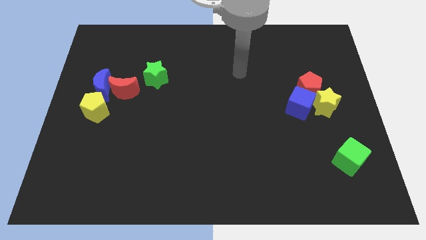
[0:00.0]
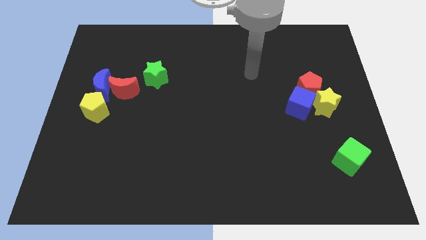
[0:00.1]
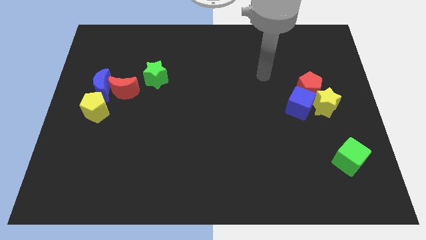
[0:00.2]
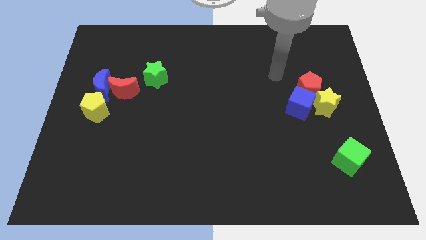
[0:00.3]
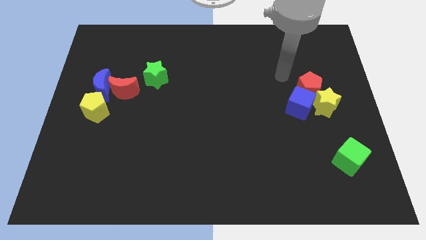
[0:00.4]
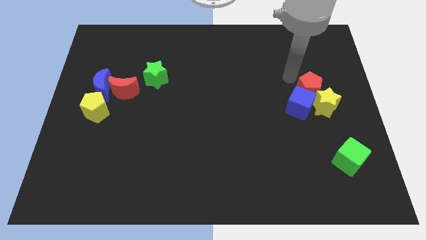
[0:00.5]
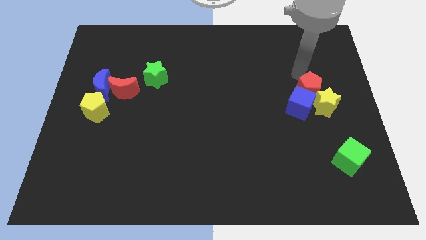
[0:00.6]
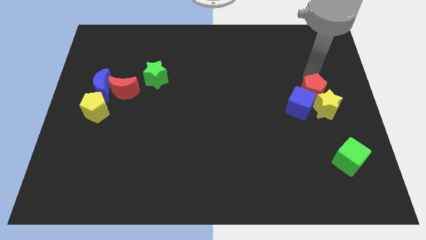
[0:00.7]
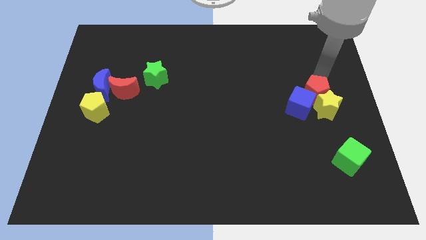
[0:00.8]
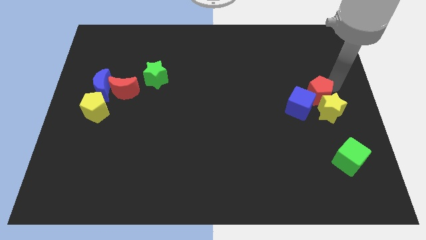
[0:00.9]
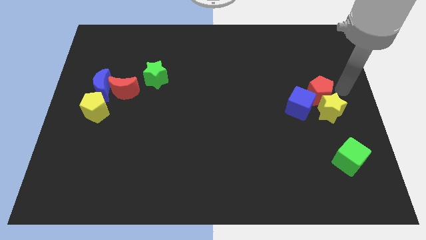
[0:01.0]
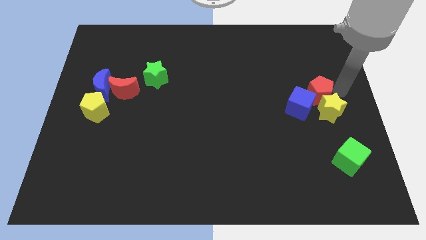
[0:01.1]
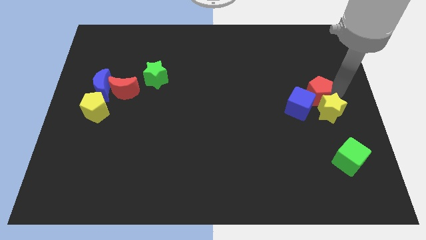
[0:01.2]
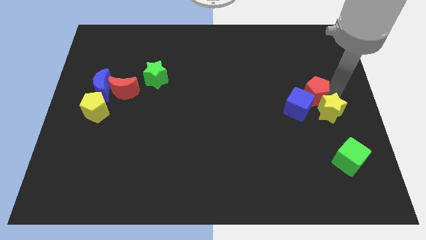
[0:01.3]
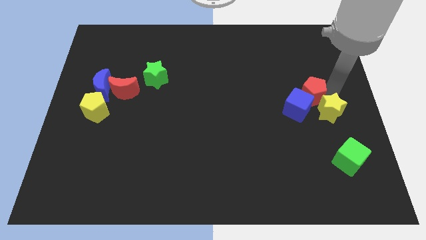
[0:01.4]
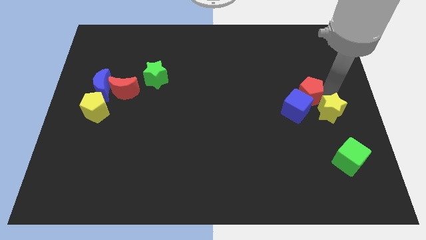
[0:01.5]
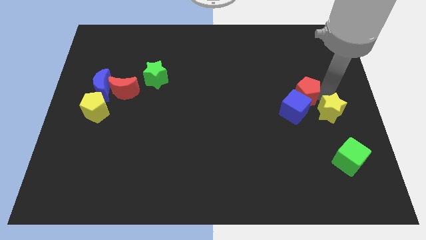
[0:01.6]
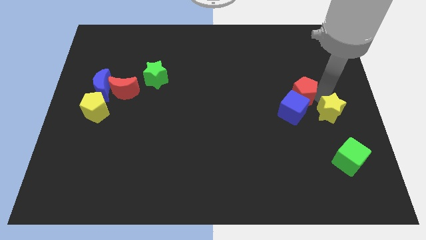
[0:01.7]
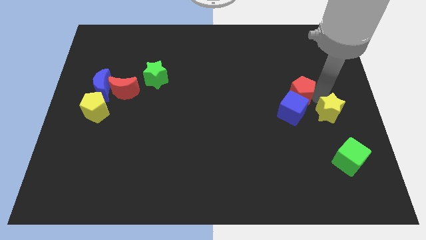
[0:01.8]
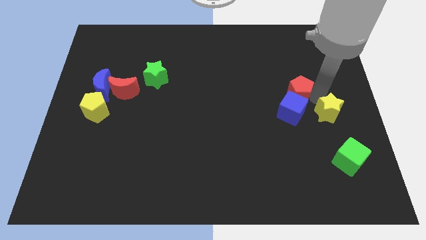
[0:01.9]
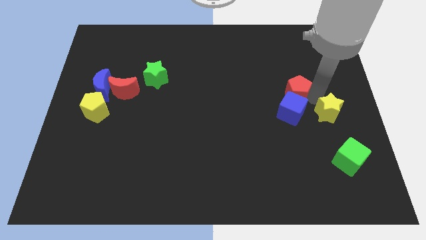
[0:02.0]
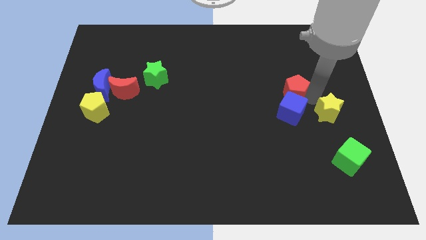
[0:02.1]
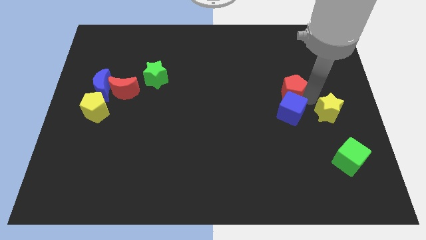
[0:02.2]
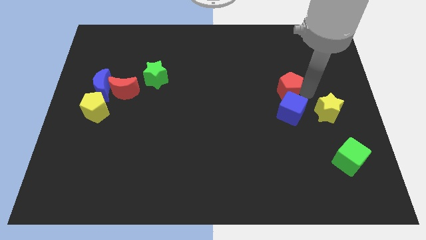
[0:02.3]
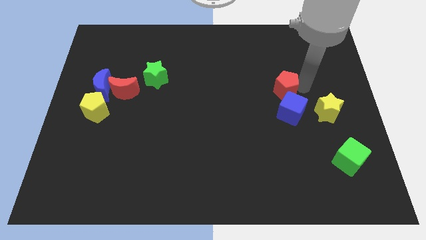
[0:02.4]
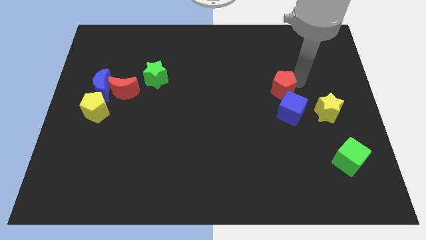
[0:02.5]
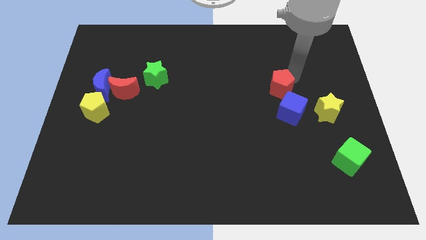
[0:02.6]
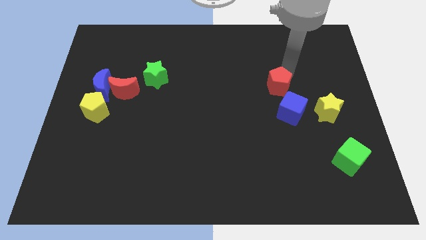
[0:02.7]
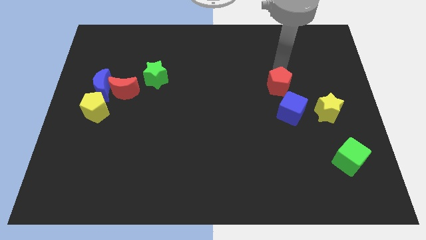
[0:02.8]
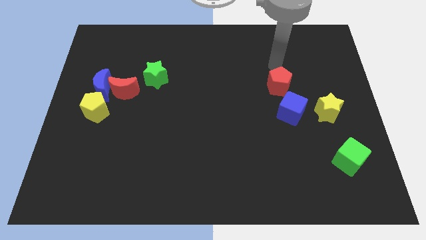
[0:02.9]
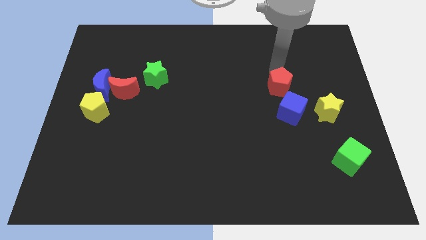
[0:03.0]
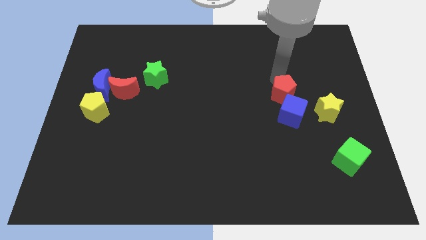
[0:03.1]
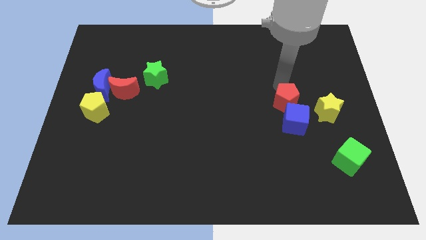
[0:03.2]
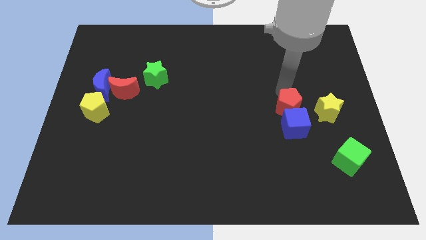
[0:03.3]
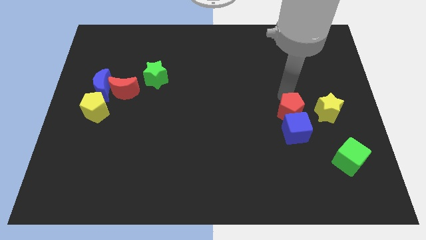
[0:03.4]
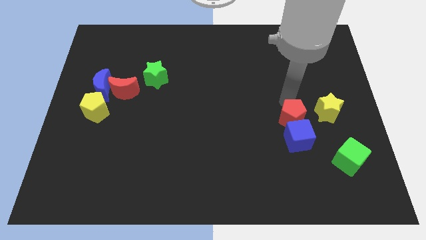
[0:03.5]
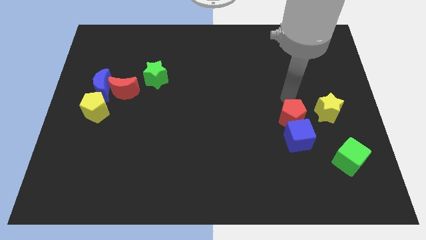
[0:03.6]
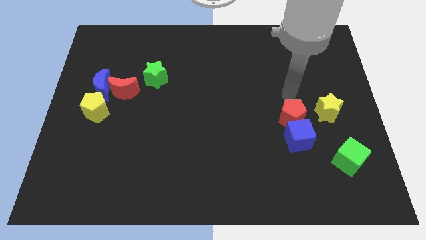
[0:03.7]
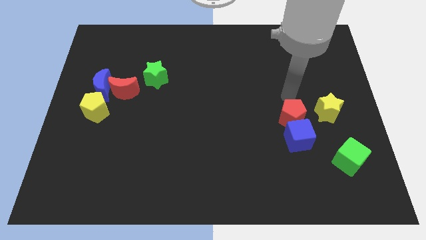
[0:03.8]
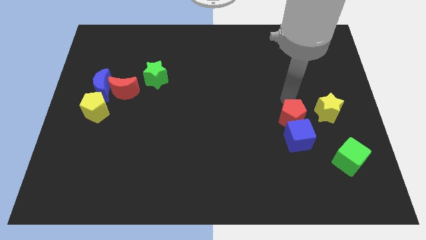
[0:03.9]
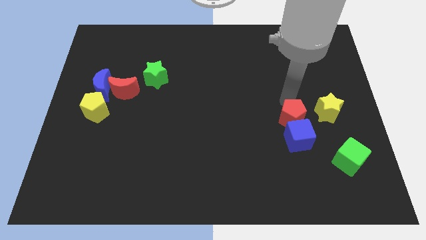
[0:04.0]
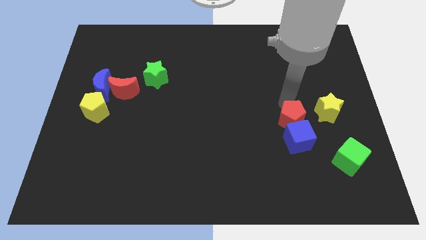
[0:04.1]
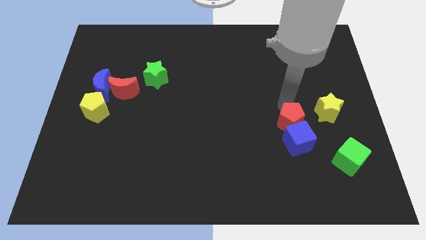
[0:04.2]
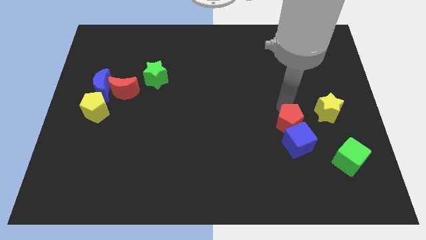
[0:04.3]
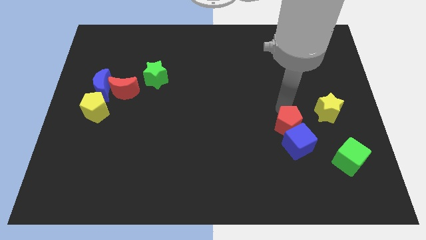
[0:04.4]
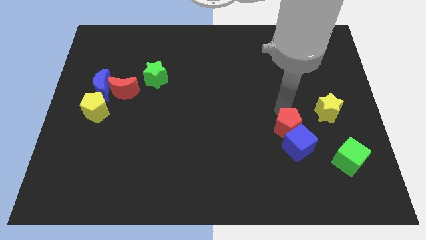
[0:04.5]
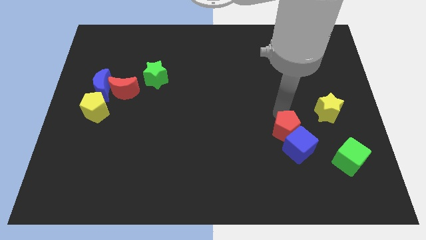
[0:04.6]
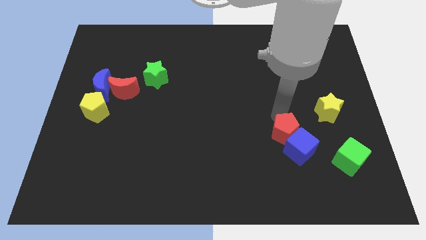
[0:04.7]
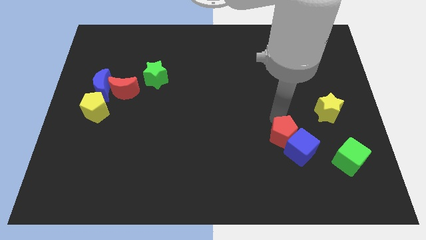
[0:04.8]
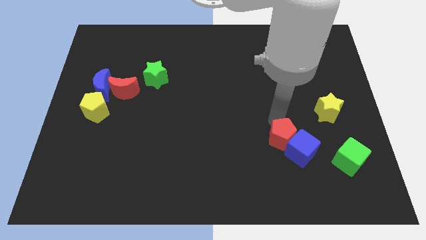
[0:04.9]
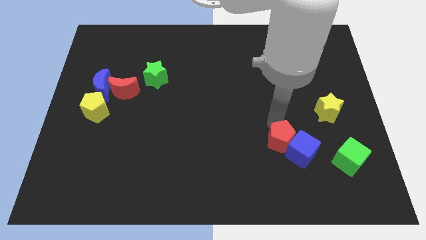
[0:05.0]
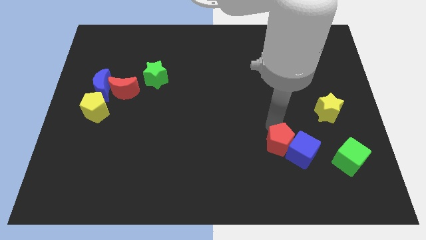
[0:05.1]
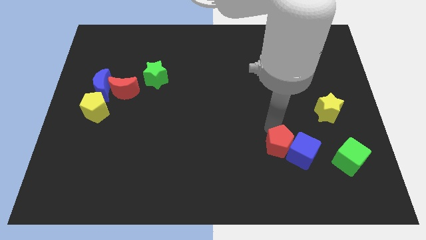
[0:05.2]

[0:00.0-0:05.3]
slide the red pentagon left of the green cube

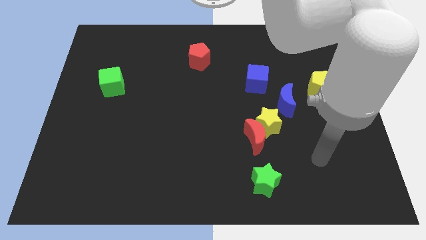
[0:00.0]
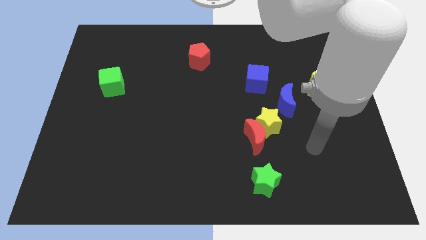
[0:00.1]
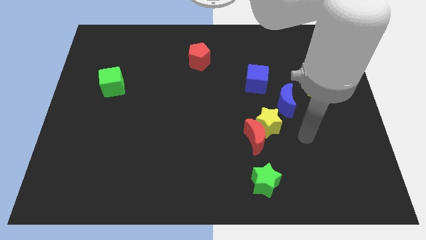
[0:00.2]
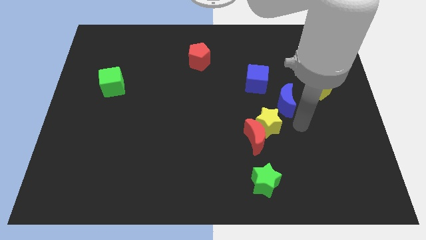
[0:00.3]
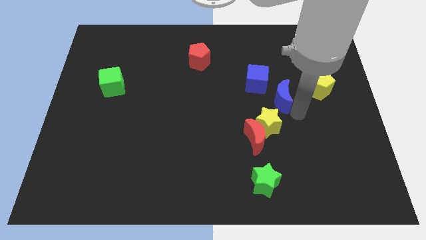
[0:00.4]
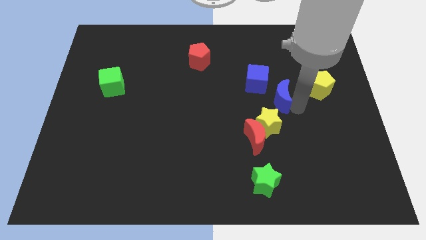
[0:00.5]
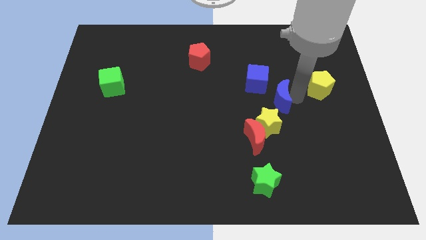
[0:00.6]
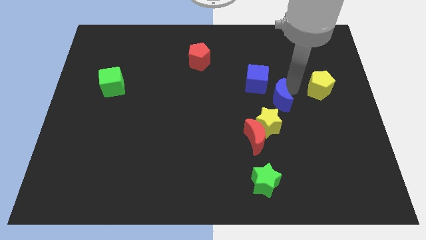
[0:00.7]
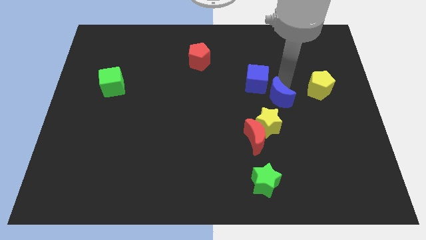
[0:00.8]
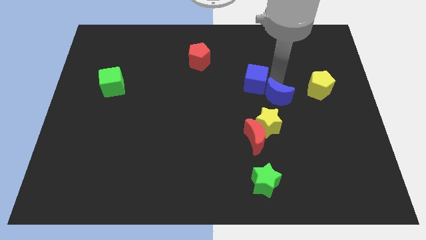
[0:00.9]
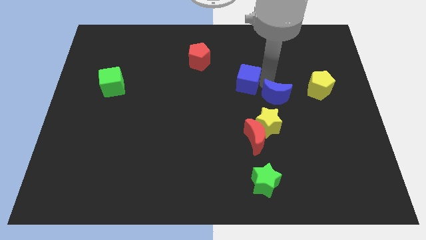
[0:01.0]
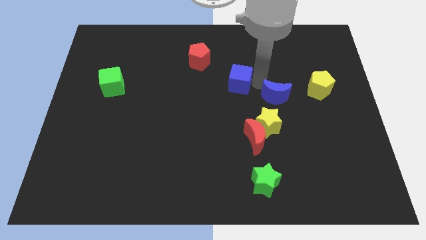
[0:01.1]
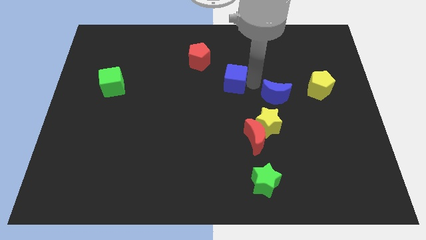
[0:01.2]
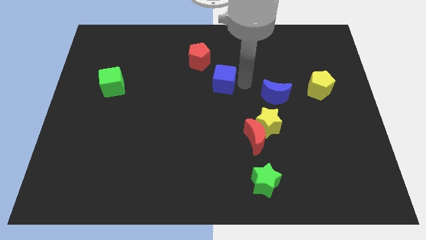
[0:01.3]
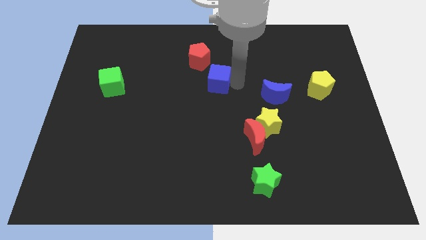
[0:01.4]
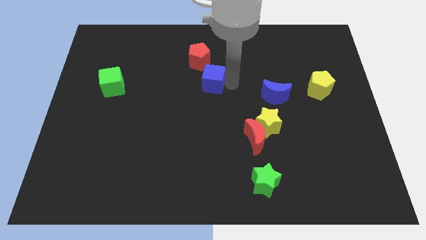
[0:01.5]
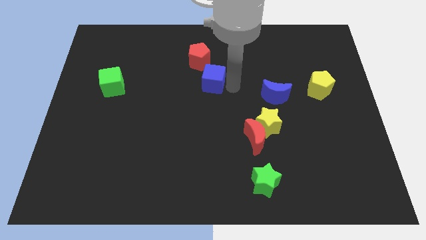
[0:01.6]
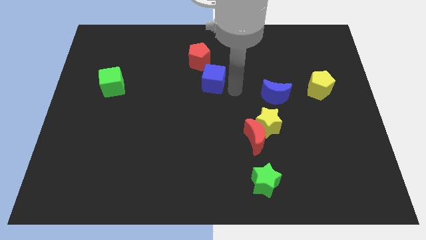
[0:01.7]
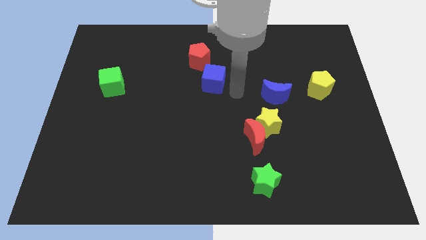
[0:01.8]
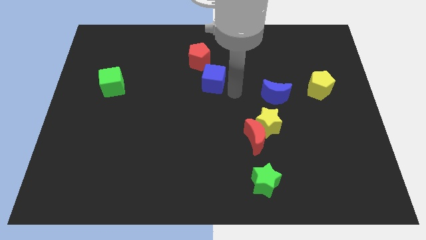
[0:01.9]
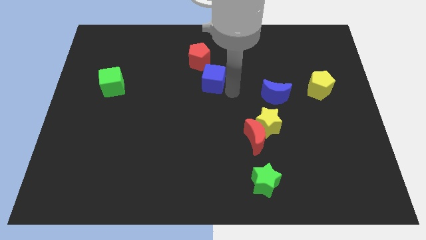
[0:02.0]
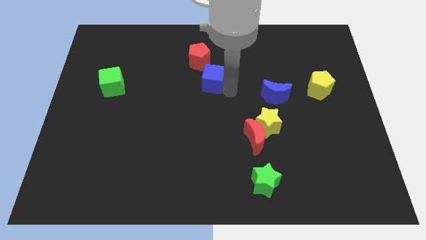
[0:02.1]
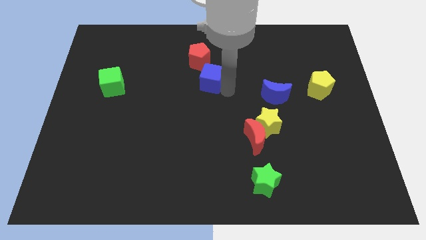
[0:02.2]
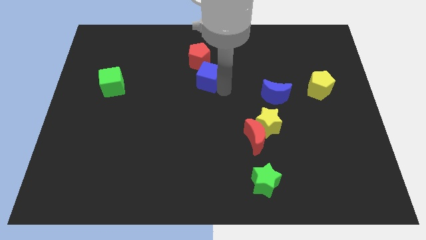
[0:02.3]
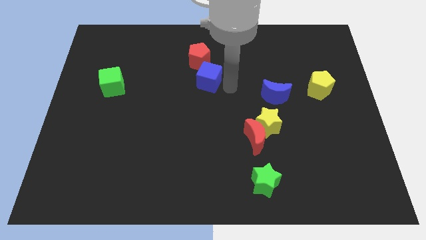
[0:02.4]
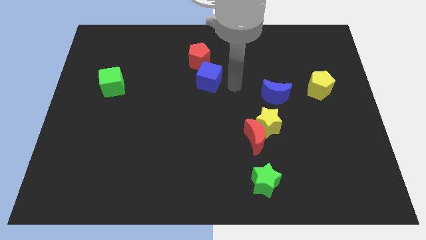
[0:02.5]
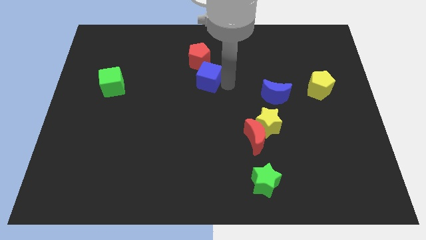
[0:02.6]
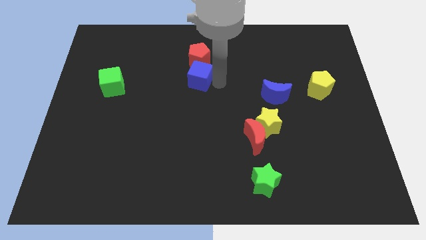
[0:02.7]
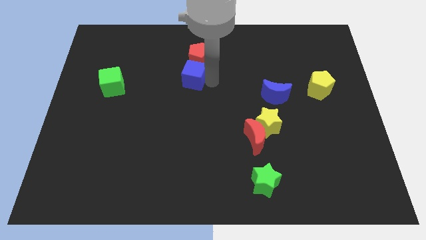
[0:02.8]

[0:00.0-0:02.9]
slide the blue cube to the bottom left of the red pentagon
